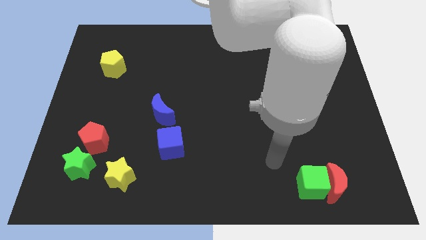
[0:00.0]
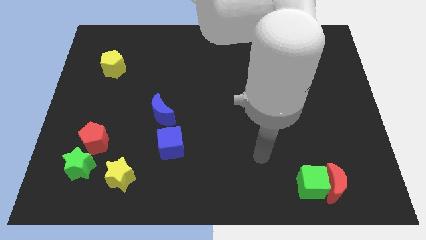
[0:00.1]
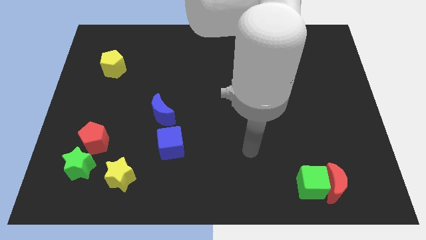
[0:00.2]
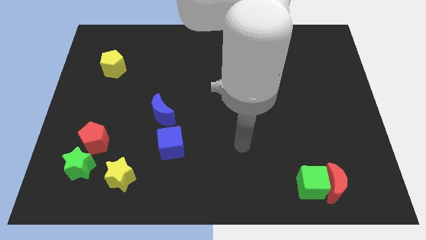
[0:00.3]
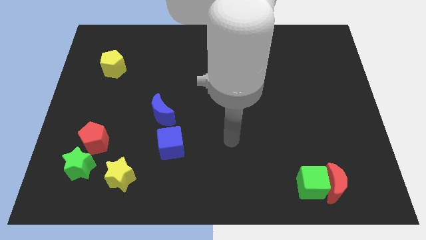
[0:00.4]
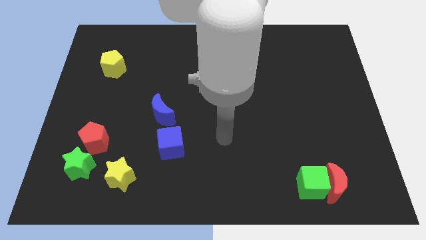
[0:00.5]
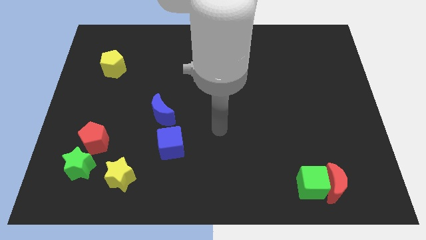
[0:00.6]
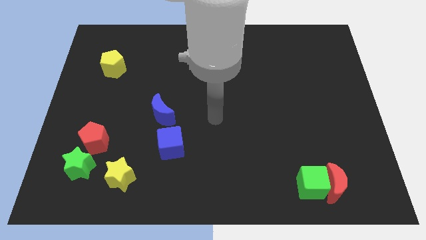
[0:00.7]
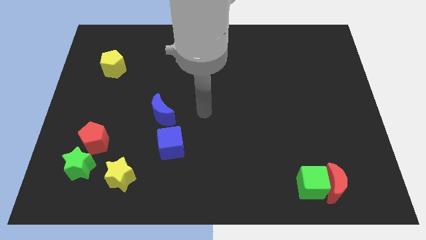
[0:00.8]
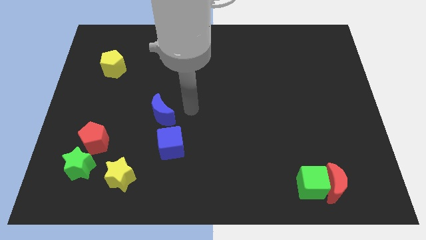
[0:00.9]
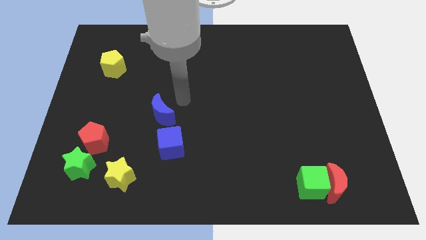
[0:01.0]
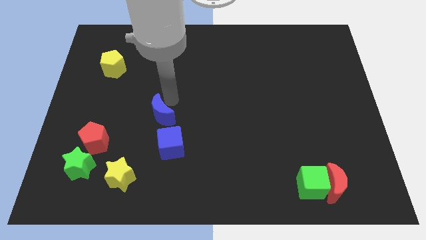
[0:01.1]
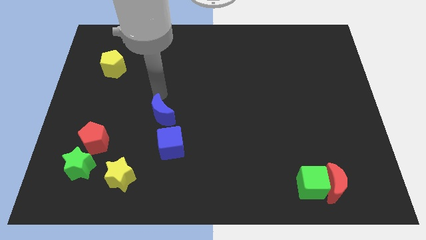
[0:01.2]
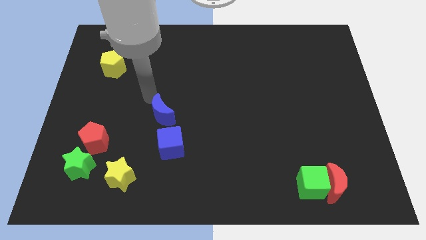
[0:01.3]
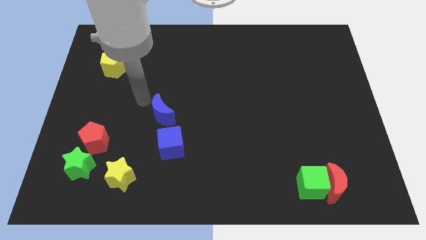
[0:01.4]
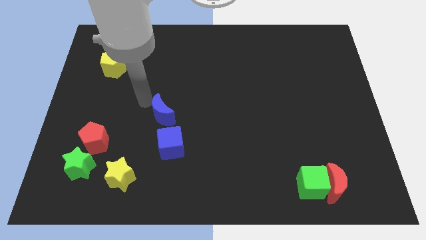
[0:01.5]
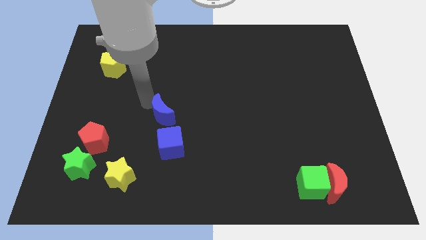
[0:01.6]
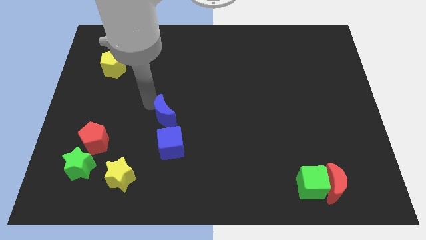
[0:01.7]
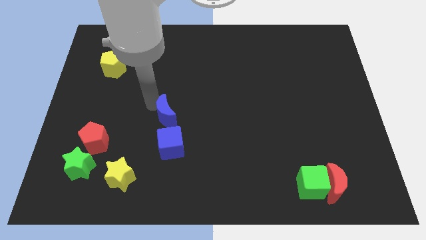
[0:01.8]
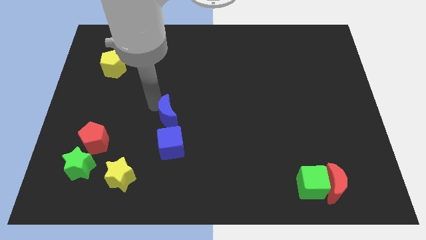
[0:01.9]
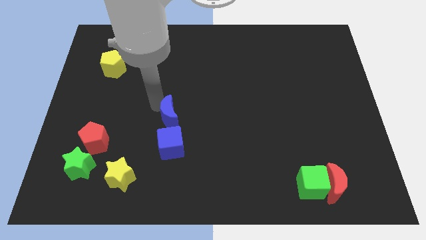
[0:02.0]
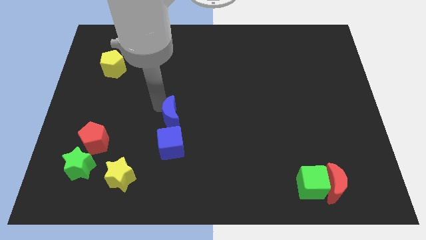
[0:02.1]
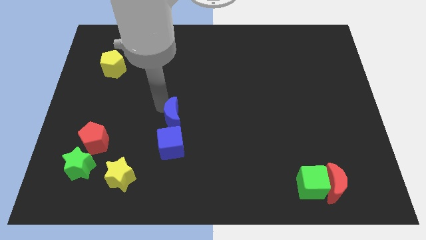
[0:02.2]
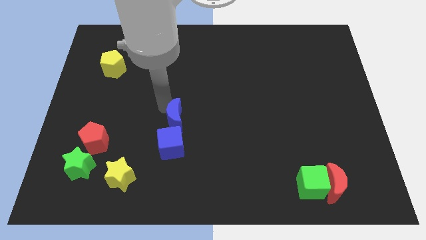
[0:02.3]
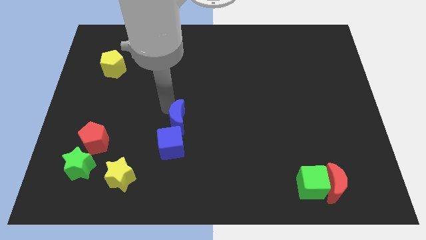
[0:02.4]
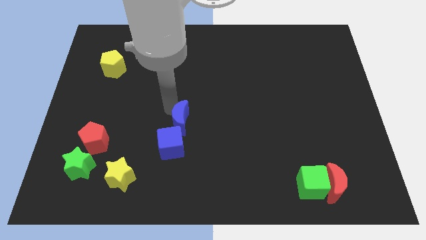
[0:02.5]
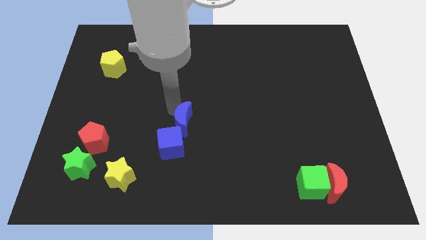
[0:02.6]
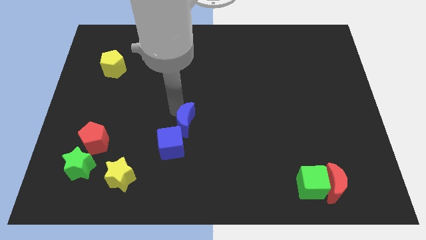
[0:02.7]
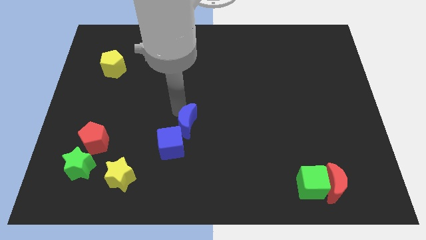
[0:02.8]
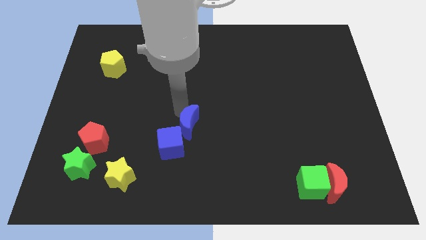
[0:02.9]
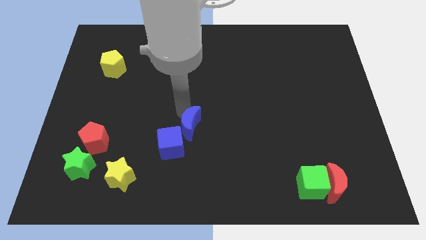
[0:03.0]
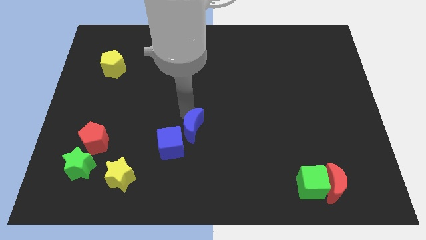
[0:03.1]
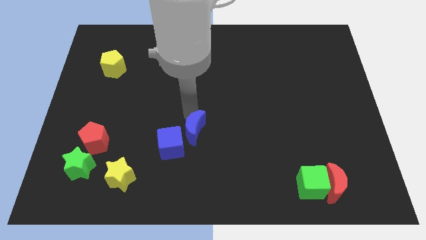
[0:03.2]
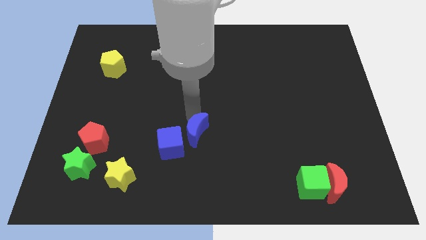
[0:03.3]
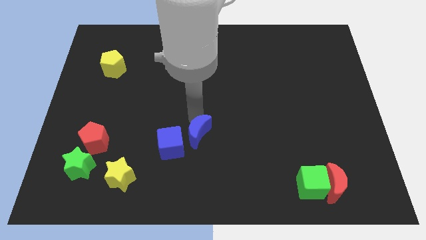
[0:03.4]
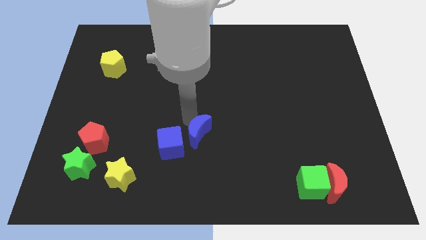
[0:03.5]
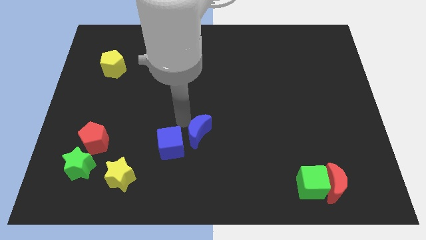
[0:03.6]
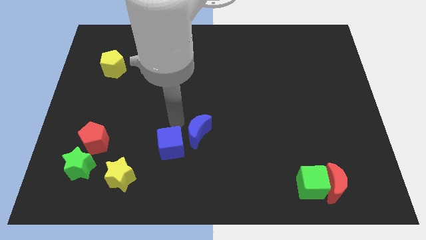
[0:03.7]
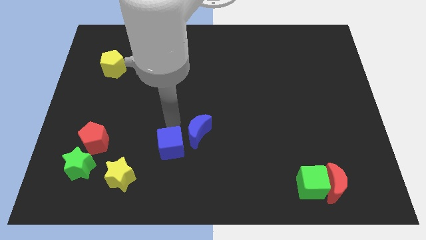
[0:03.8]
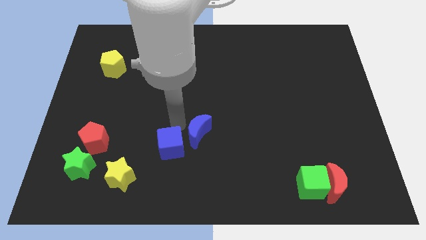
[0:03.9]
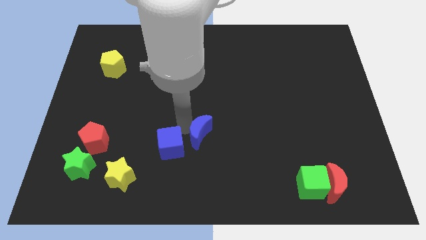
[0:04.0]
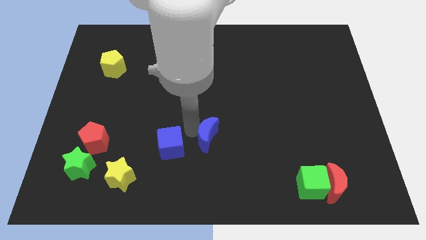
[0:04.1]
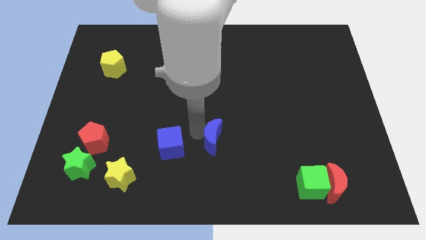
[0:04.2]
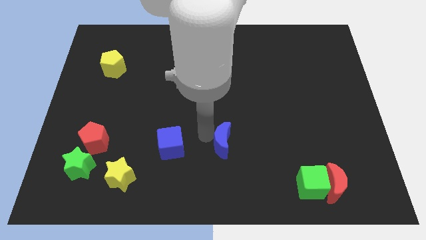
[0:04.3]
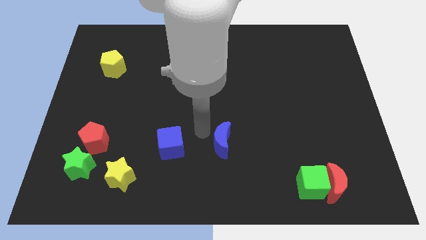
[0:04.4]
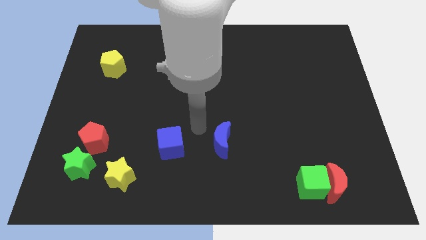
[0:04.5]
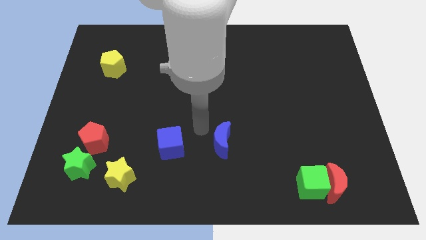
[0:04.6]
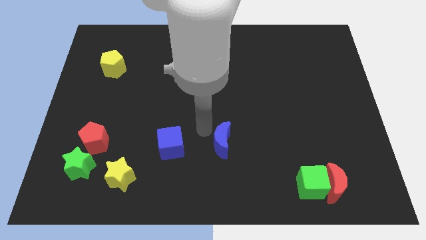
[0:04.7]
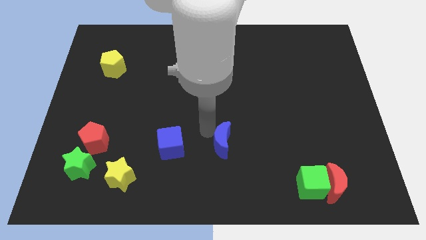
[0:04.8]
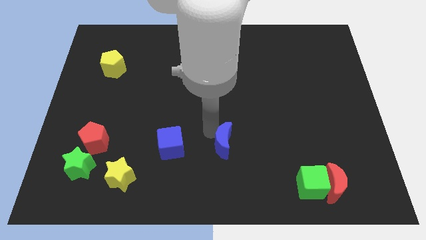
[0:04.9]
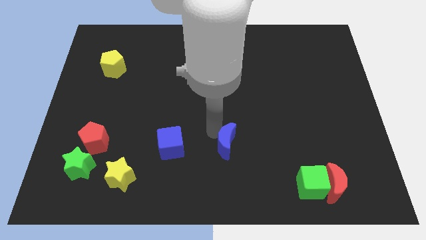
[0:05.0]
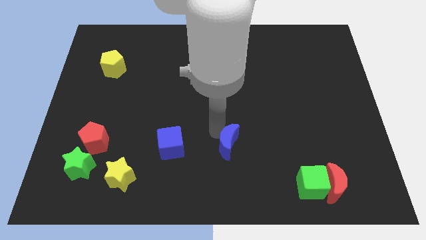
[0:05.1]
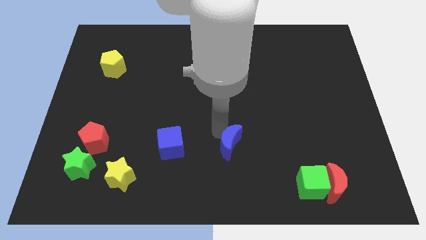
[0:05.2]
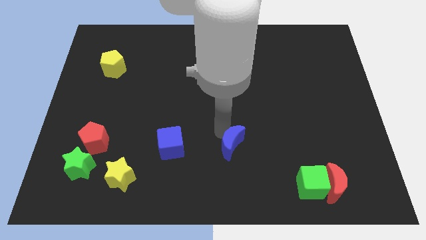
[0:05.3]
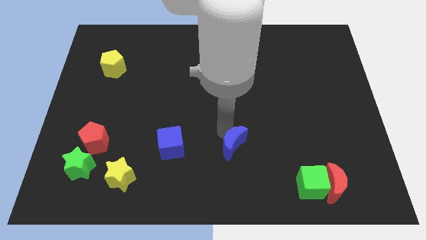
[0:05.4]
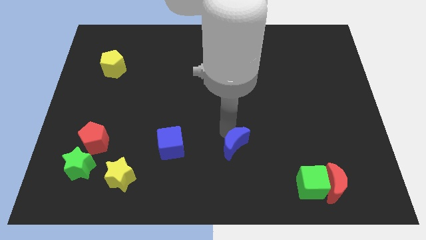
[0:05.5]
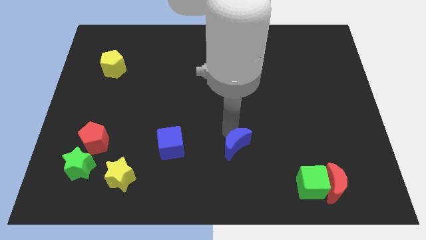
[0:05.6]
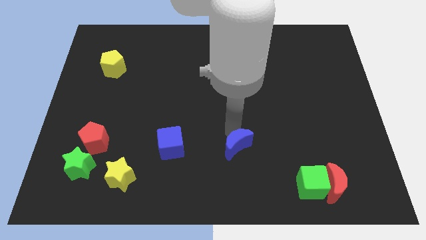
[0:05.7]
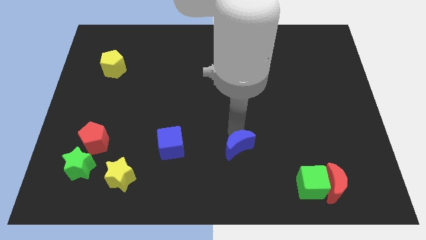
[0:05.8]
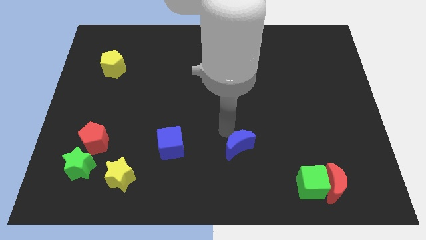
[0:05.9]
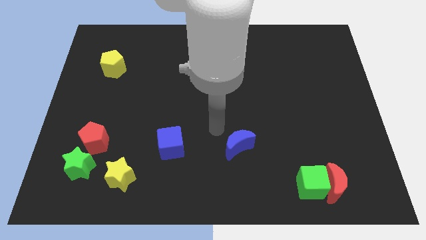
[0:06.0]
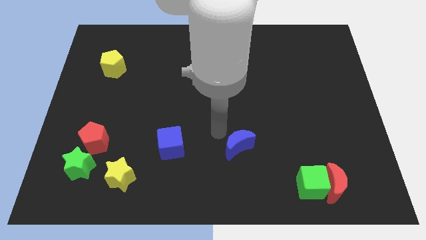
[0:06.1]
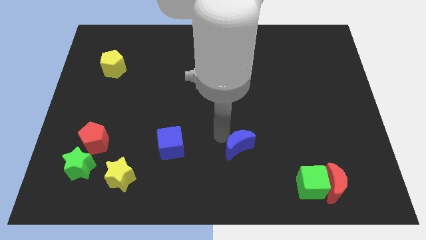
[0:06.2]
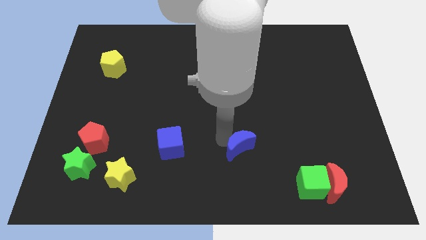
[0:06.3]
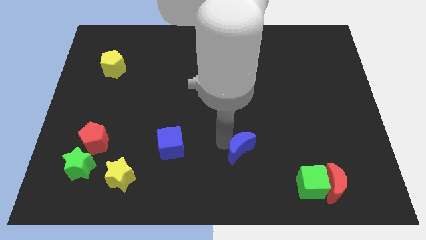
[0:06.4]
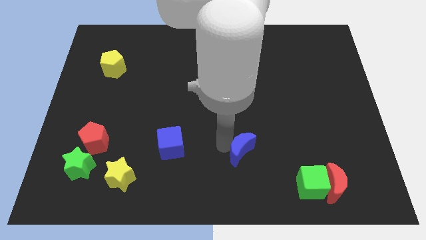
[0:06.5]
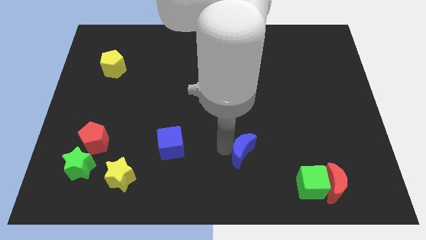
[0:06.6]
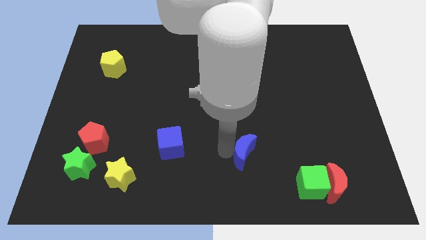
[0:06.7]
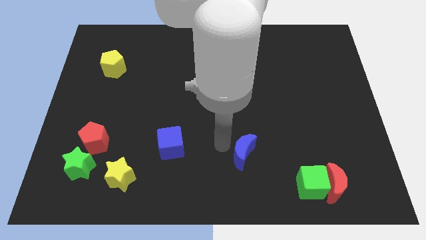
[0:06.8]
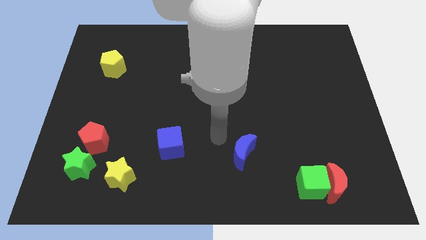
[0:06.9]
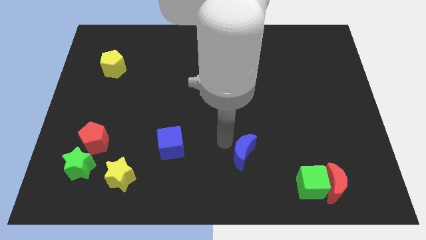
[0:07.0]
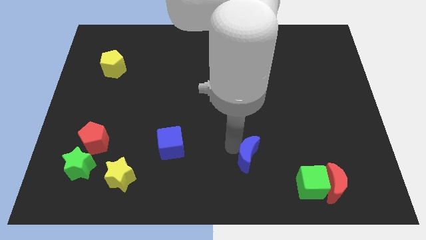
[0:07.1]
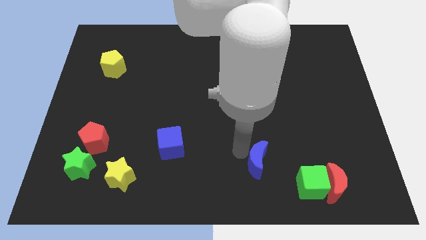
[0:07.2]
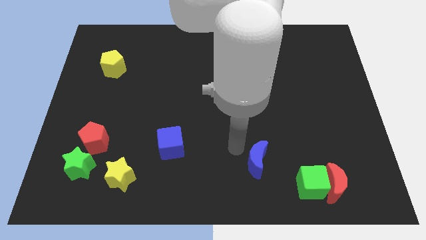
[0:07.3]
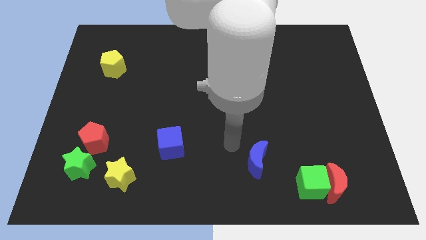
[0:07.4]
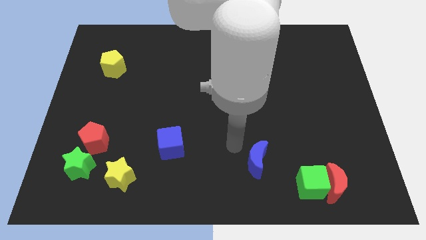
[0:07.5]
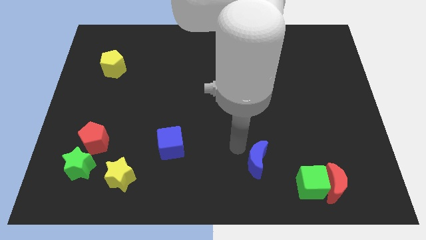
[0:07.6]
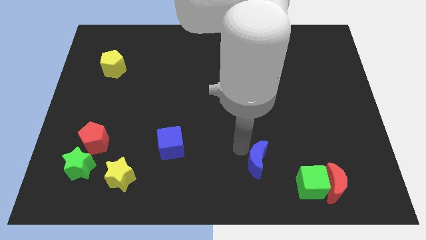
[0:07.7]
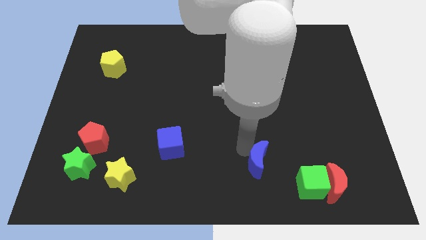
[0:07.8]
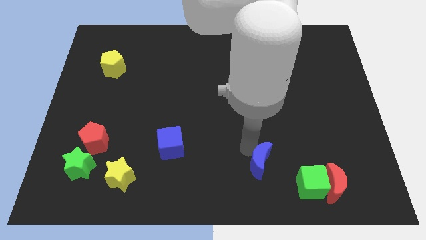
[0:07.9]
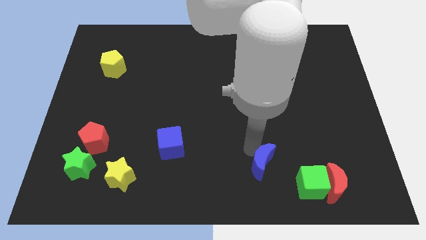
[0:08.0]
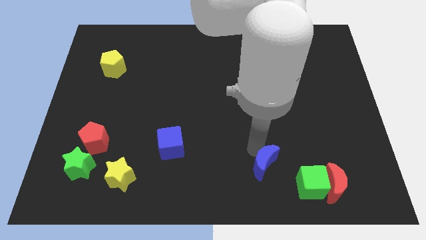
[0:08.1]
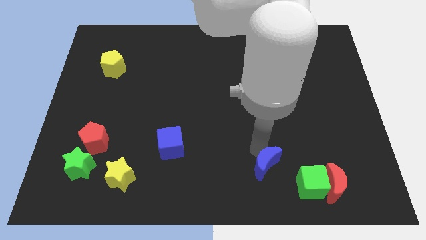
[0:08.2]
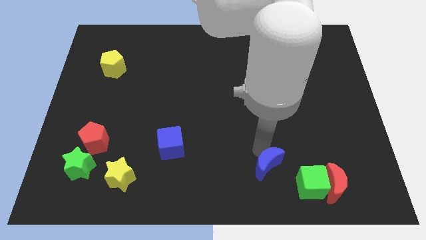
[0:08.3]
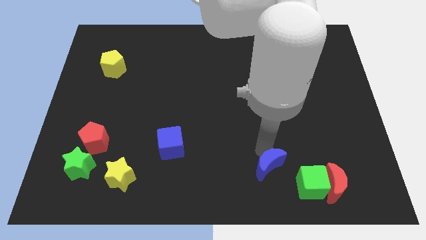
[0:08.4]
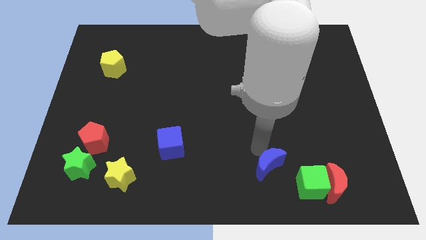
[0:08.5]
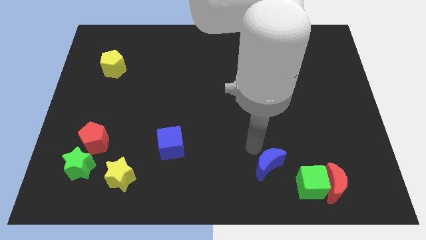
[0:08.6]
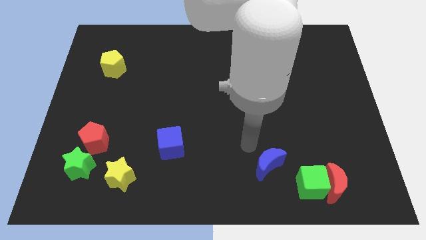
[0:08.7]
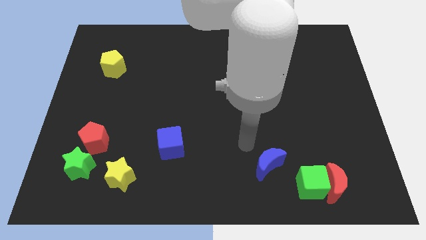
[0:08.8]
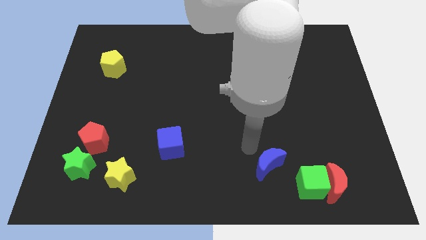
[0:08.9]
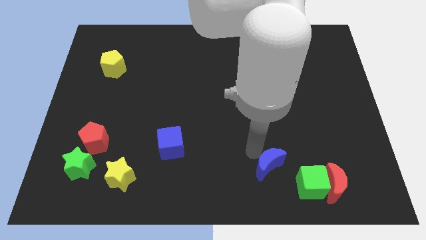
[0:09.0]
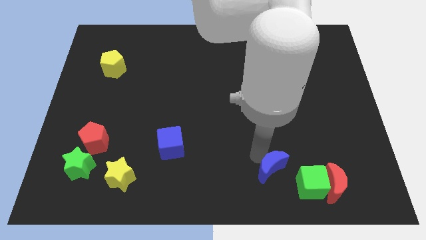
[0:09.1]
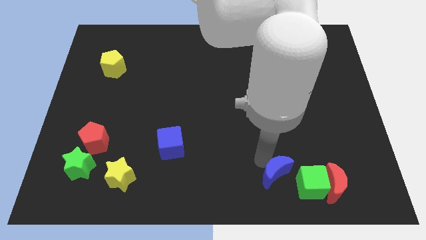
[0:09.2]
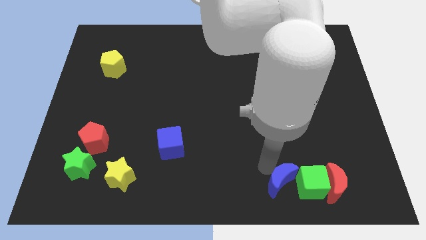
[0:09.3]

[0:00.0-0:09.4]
push the blue moon close to the green cube
